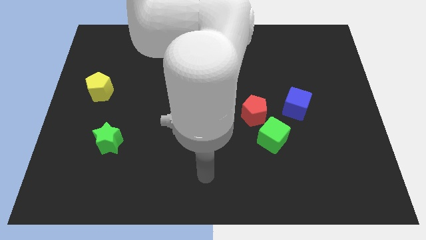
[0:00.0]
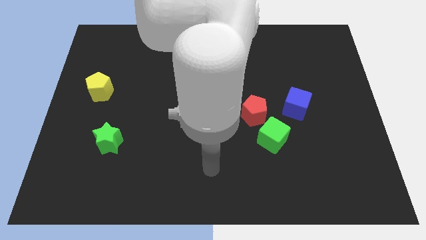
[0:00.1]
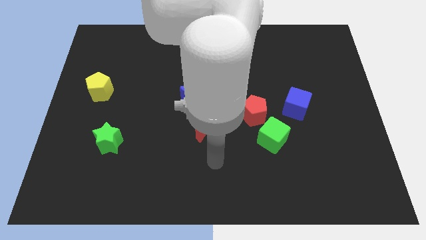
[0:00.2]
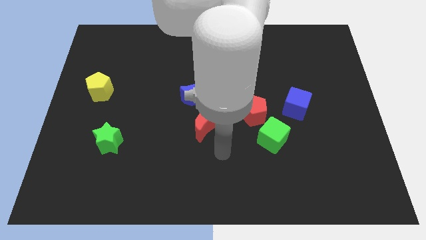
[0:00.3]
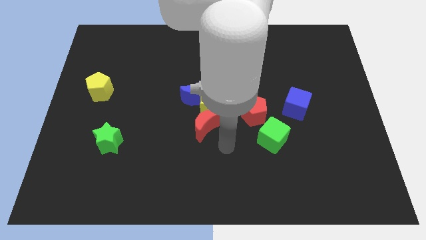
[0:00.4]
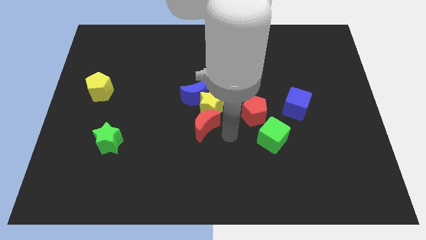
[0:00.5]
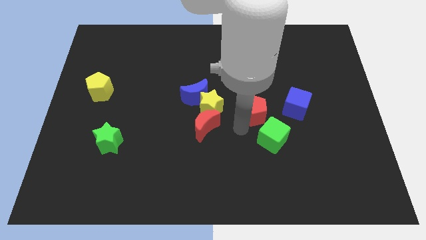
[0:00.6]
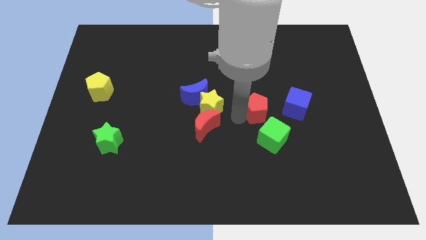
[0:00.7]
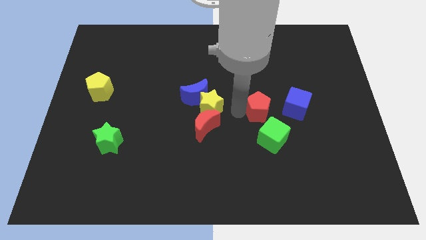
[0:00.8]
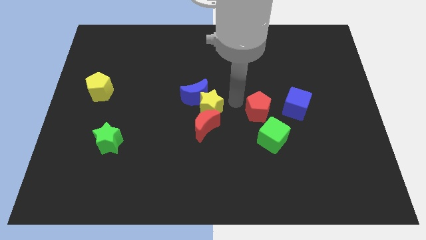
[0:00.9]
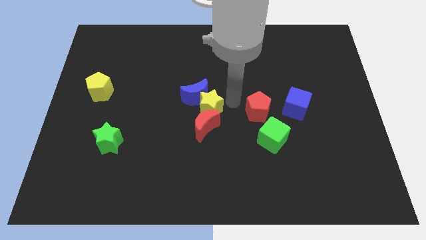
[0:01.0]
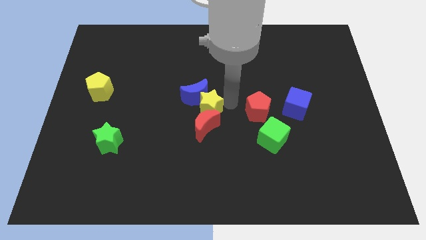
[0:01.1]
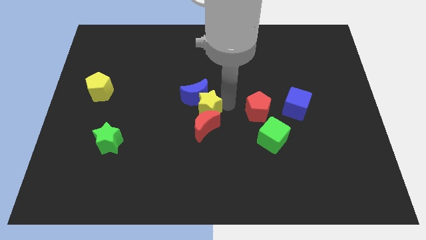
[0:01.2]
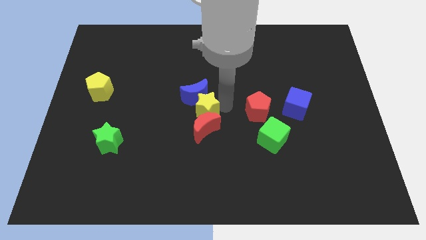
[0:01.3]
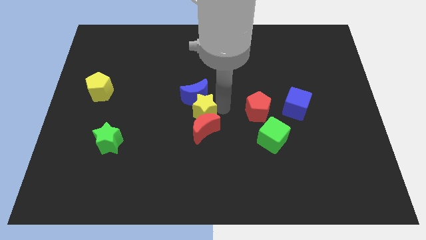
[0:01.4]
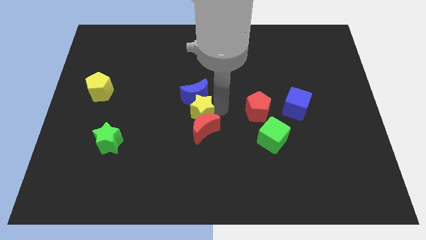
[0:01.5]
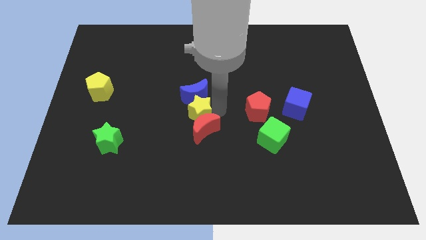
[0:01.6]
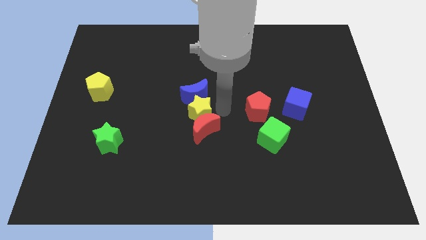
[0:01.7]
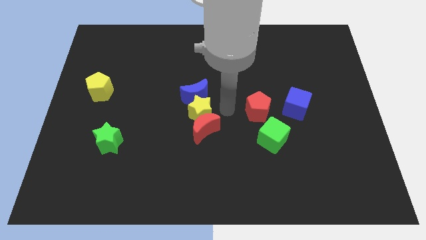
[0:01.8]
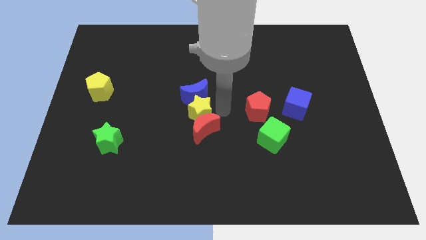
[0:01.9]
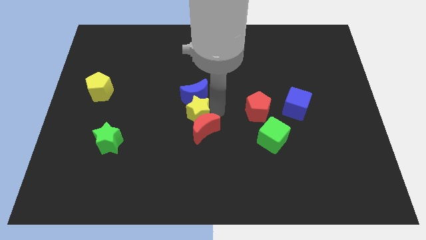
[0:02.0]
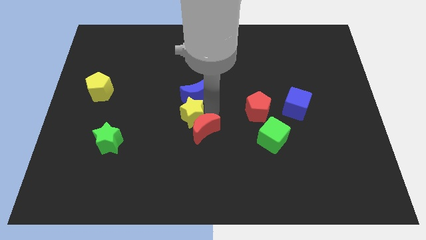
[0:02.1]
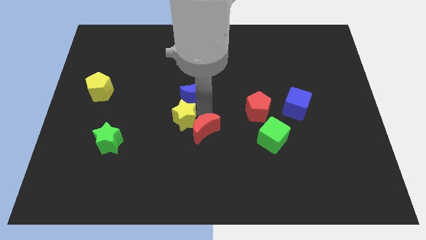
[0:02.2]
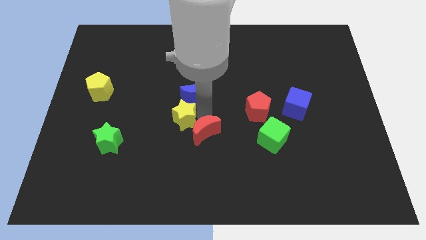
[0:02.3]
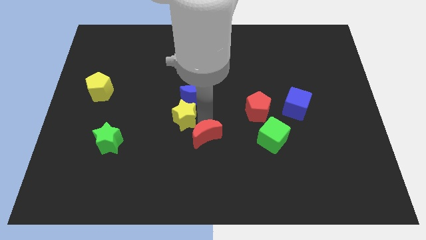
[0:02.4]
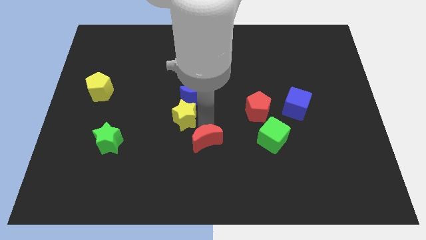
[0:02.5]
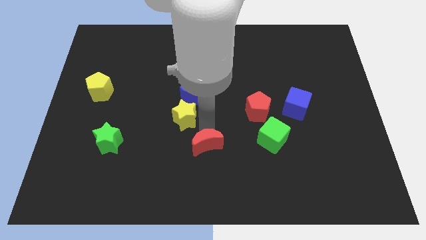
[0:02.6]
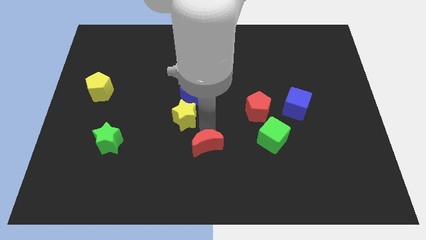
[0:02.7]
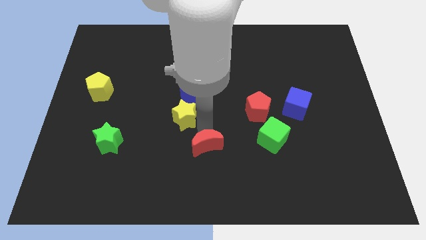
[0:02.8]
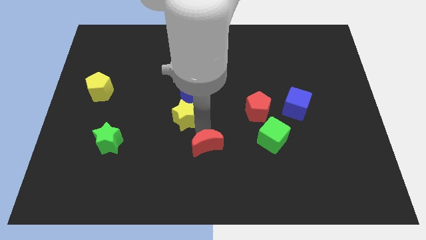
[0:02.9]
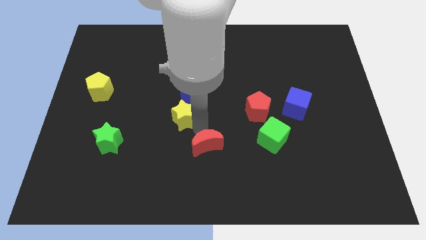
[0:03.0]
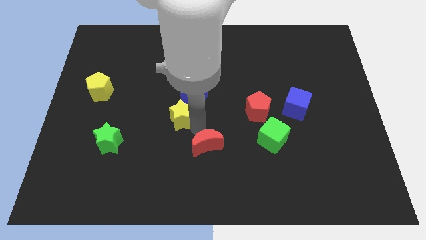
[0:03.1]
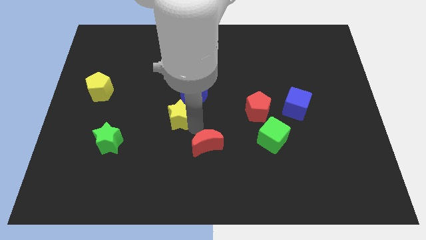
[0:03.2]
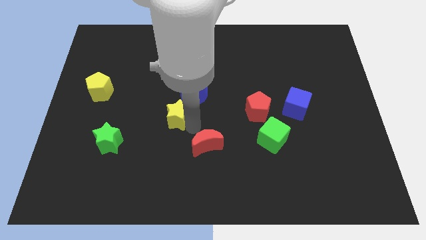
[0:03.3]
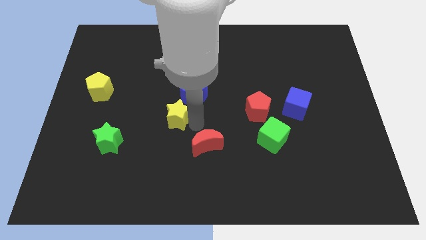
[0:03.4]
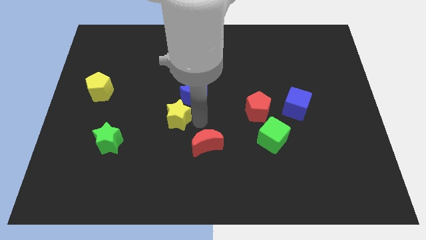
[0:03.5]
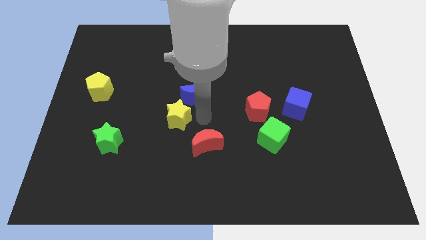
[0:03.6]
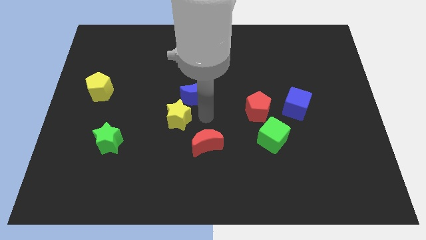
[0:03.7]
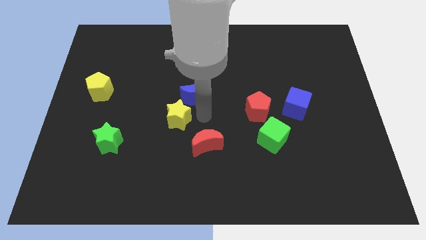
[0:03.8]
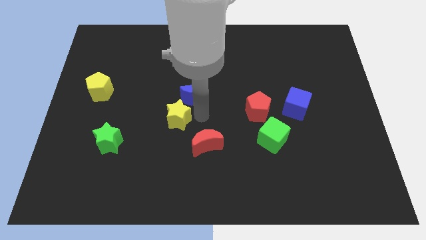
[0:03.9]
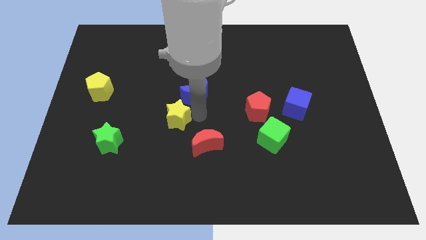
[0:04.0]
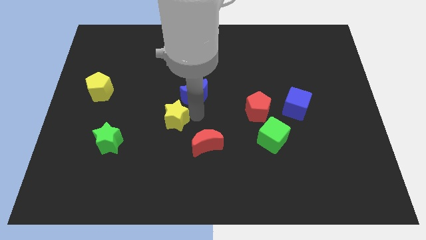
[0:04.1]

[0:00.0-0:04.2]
move the yellow star away from the blue moon, red moon, and red pentagon

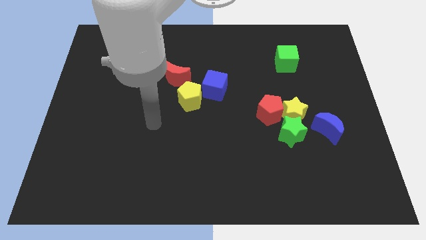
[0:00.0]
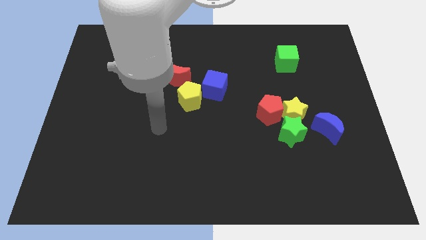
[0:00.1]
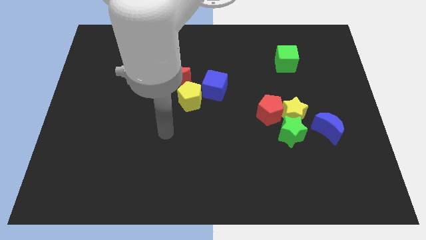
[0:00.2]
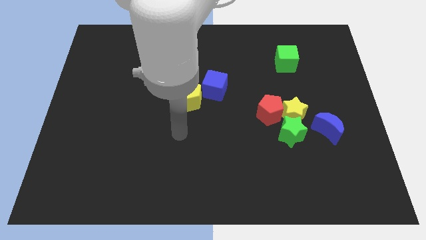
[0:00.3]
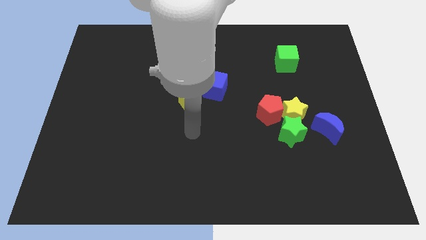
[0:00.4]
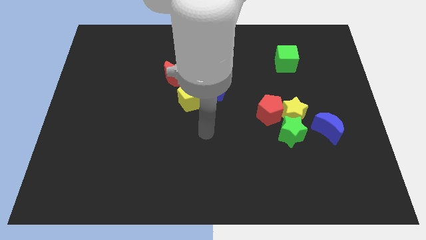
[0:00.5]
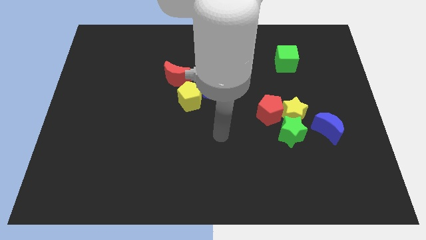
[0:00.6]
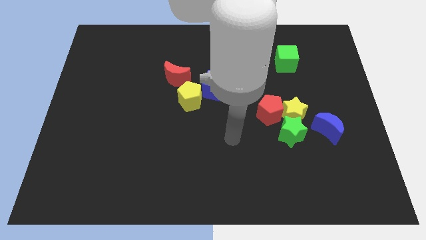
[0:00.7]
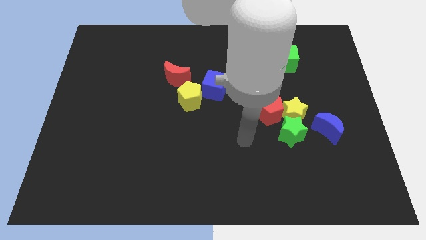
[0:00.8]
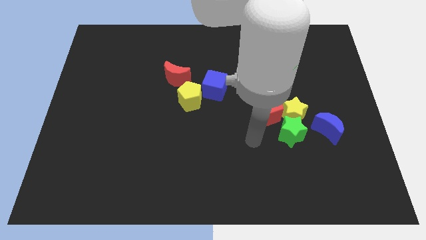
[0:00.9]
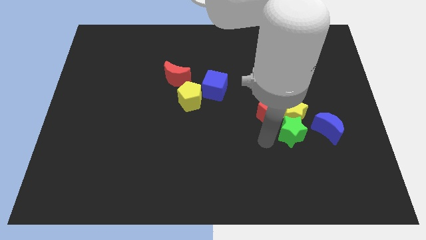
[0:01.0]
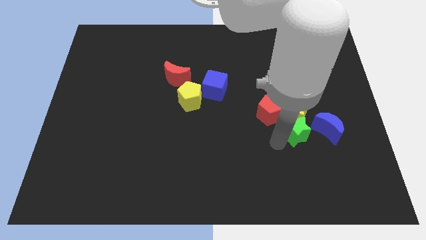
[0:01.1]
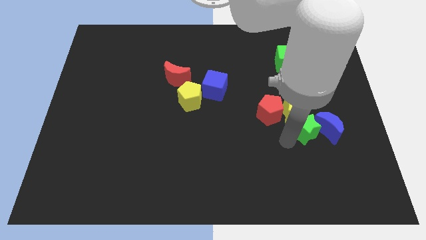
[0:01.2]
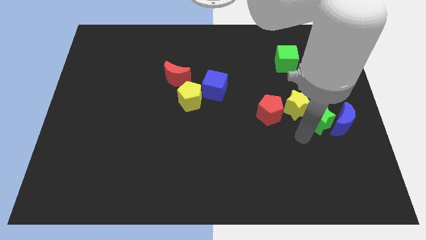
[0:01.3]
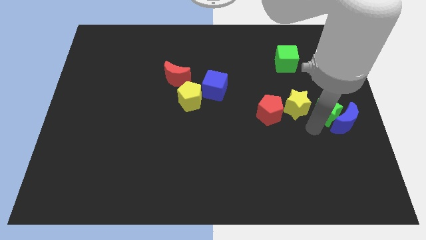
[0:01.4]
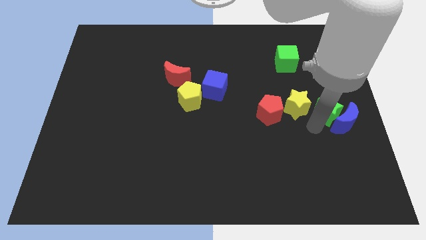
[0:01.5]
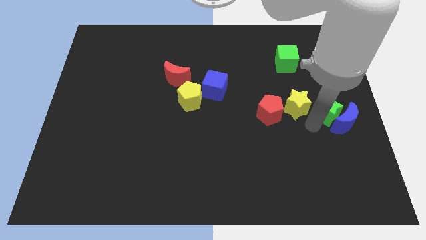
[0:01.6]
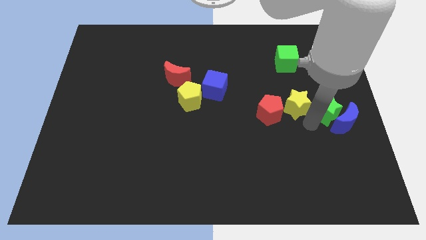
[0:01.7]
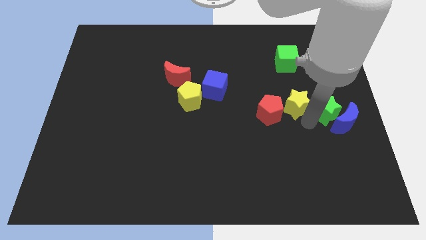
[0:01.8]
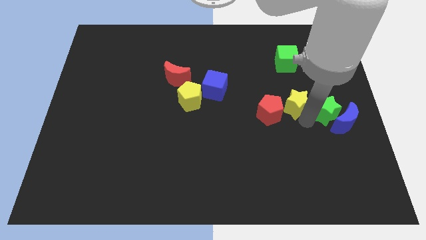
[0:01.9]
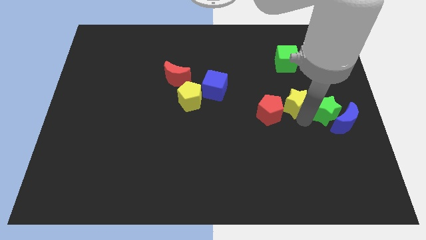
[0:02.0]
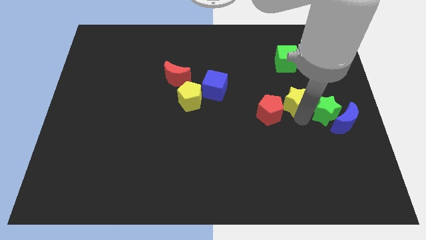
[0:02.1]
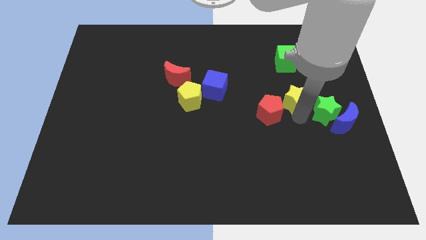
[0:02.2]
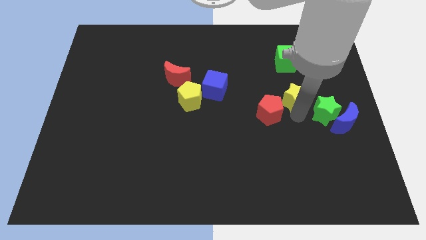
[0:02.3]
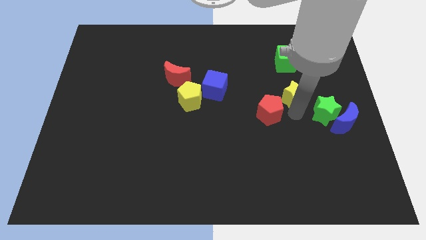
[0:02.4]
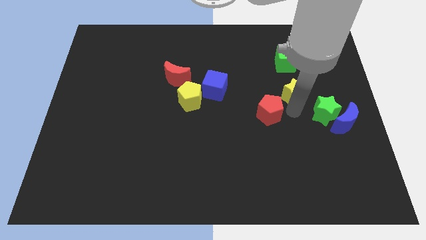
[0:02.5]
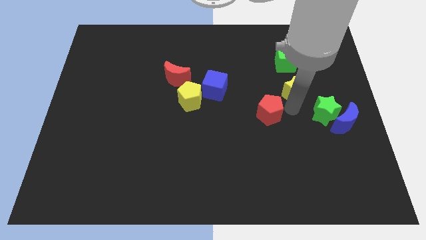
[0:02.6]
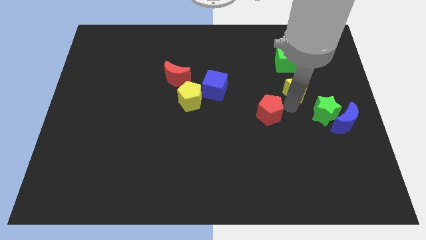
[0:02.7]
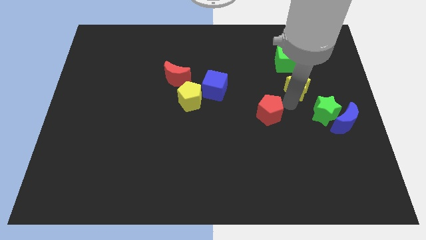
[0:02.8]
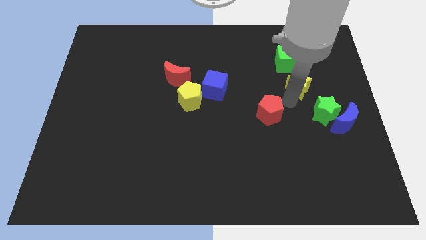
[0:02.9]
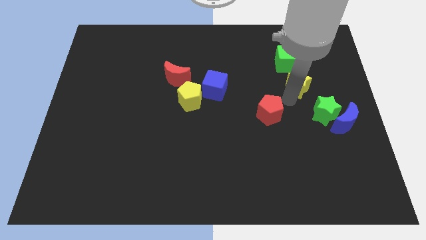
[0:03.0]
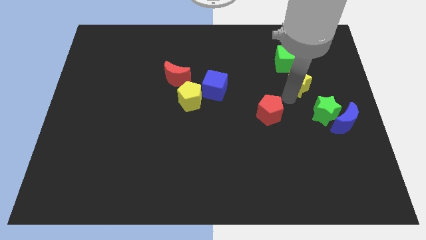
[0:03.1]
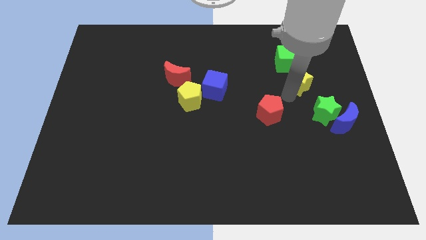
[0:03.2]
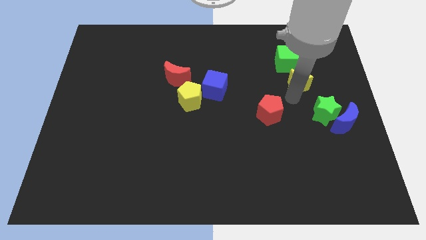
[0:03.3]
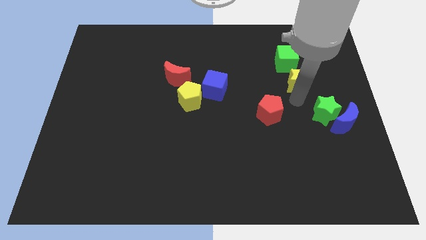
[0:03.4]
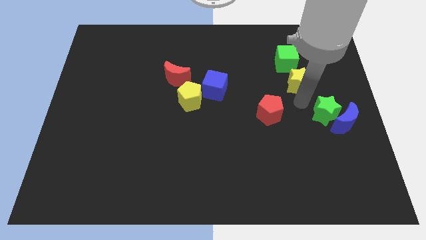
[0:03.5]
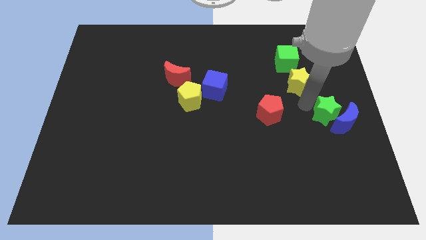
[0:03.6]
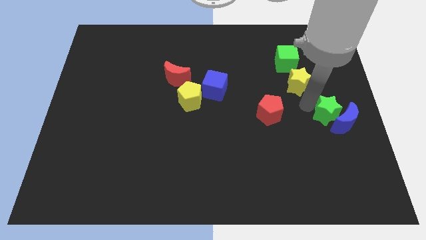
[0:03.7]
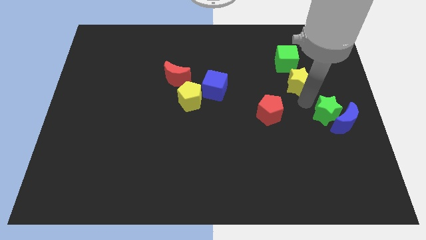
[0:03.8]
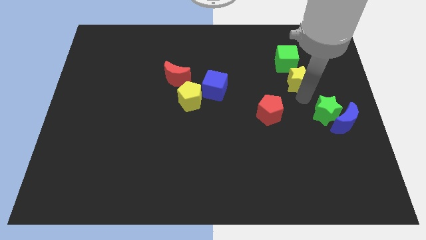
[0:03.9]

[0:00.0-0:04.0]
pull the yellow star apart from the clump

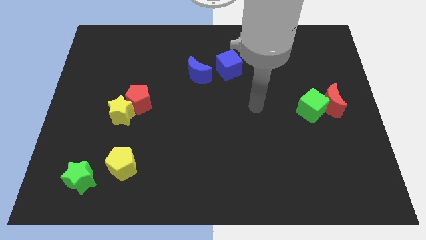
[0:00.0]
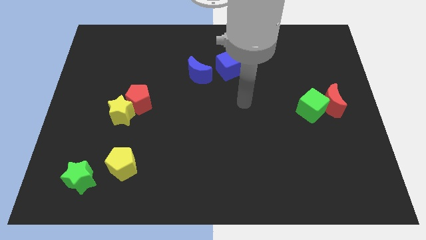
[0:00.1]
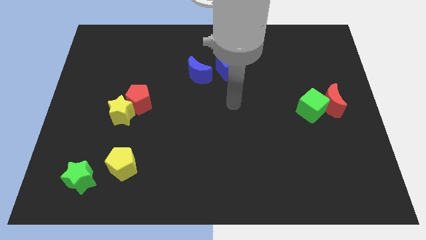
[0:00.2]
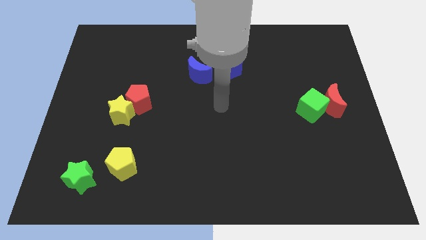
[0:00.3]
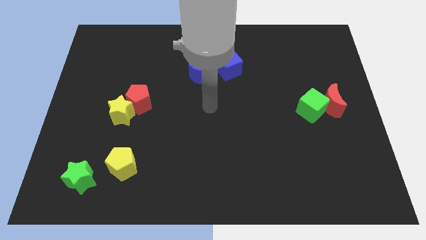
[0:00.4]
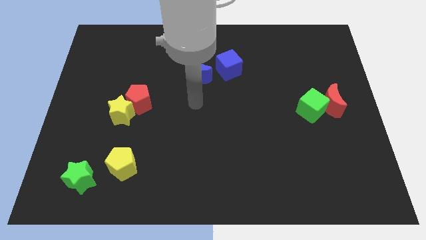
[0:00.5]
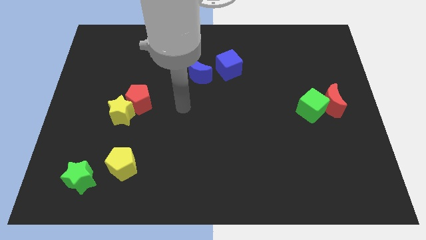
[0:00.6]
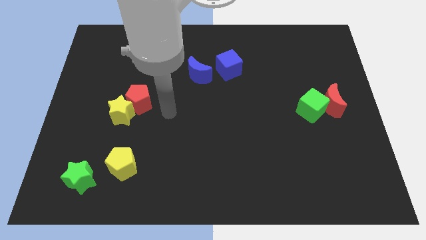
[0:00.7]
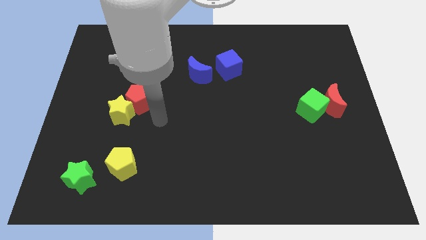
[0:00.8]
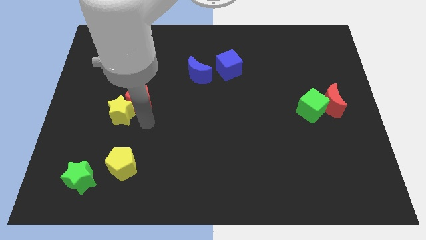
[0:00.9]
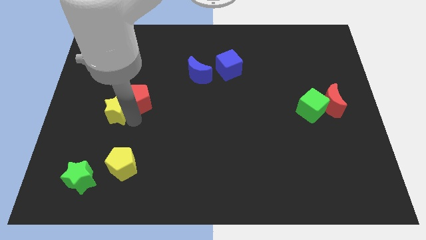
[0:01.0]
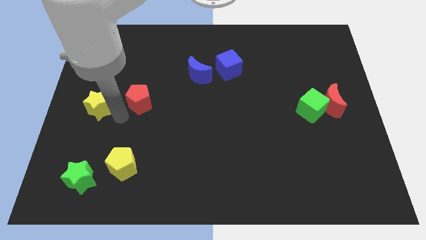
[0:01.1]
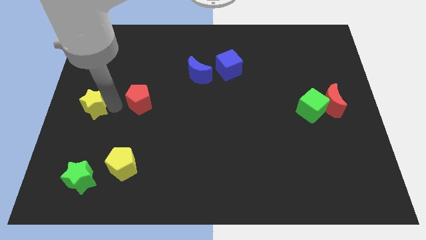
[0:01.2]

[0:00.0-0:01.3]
separate the red pentagon from the yellow star
